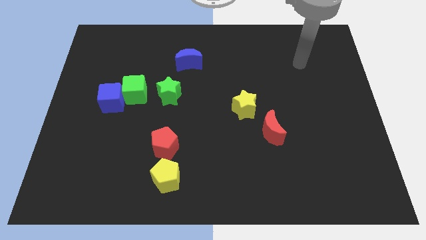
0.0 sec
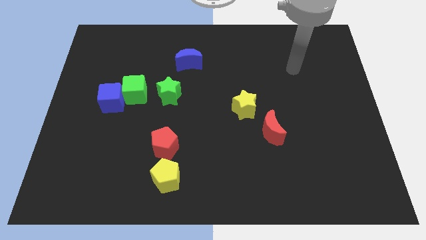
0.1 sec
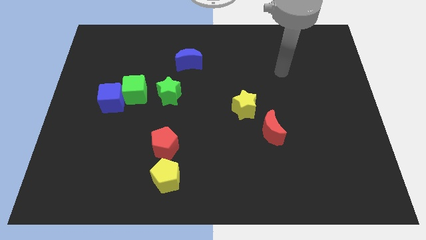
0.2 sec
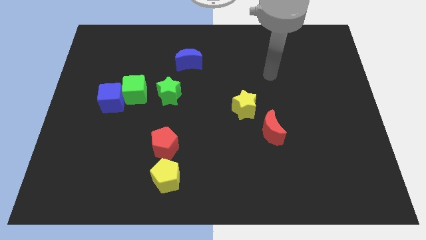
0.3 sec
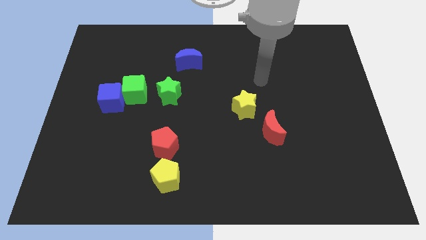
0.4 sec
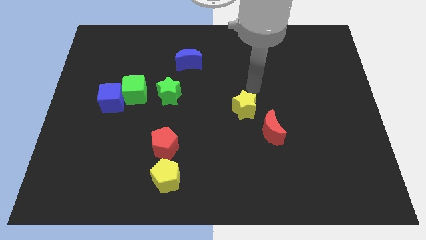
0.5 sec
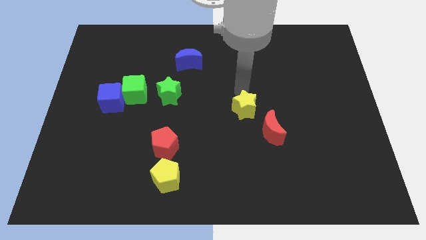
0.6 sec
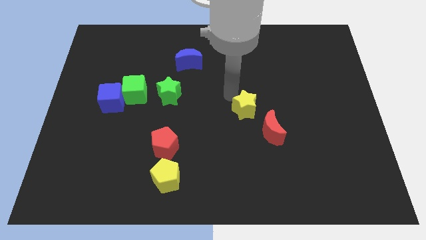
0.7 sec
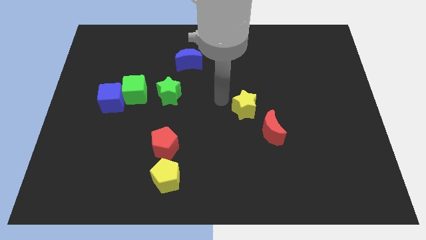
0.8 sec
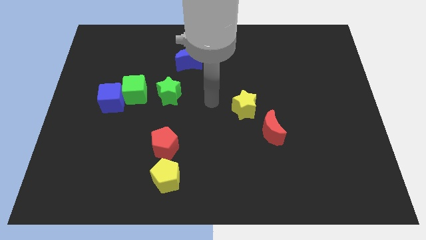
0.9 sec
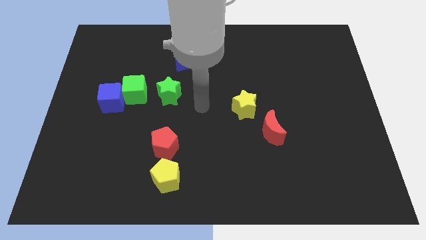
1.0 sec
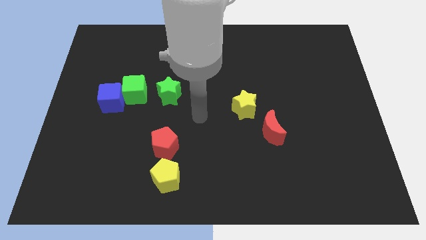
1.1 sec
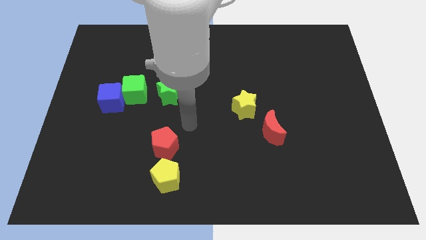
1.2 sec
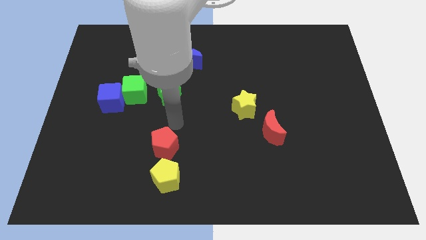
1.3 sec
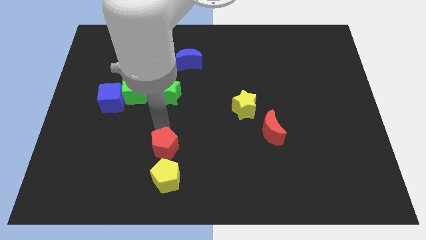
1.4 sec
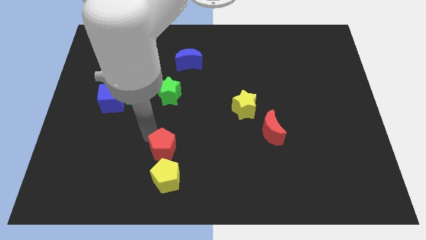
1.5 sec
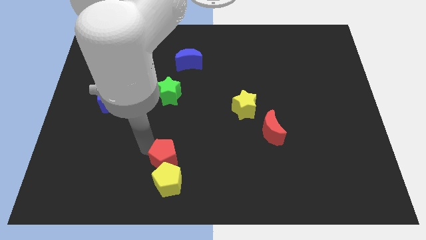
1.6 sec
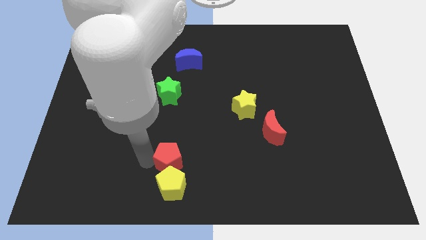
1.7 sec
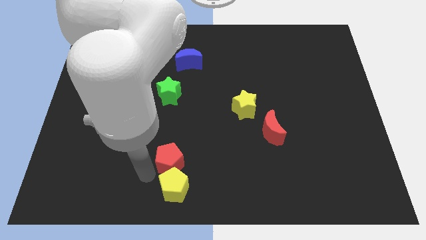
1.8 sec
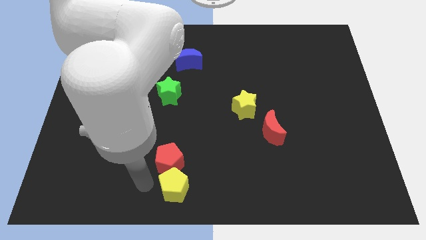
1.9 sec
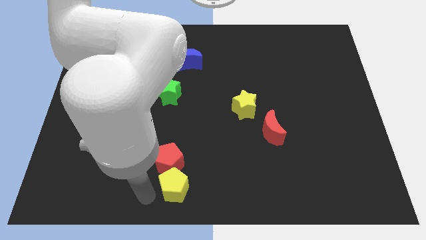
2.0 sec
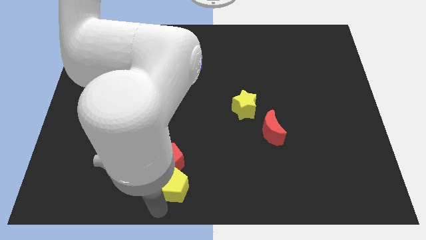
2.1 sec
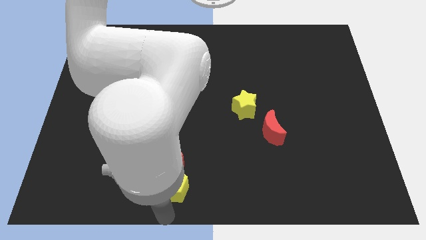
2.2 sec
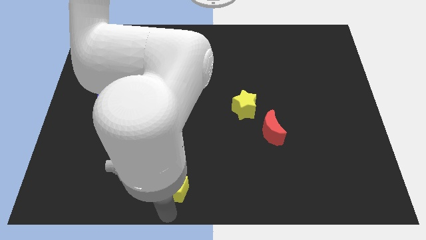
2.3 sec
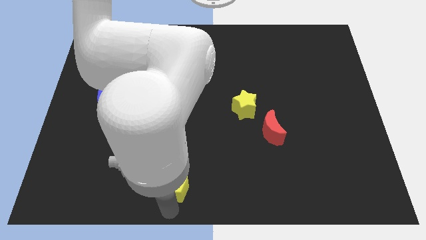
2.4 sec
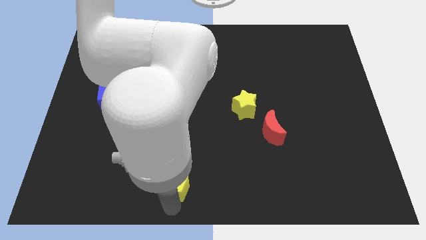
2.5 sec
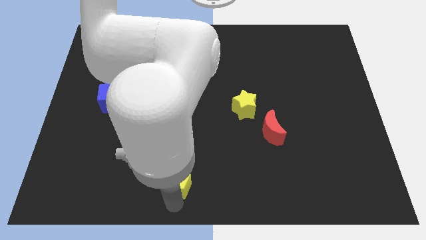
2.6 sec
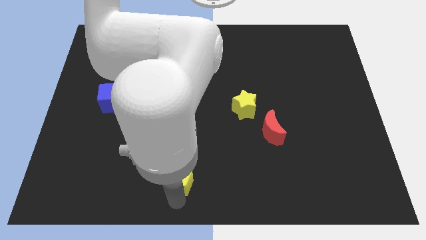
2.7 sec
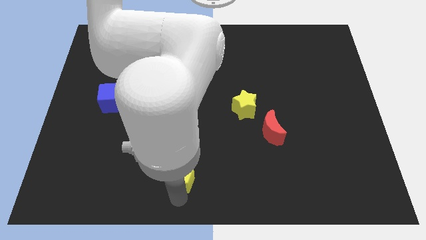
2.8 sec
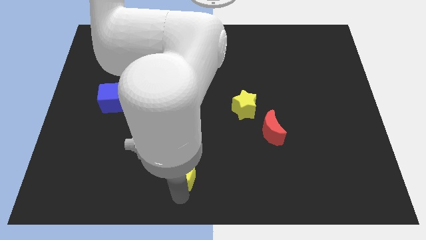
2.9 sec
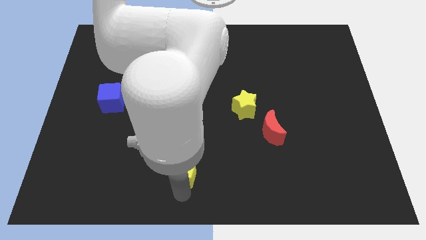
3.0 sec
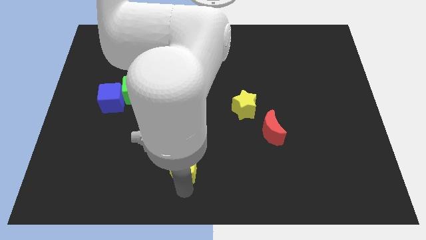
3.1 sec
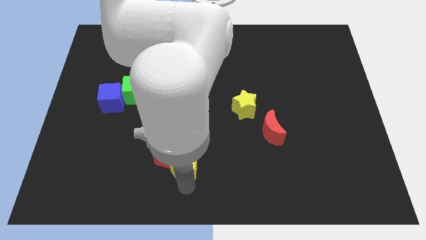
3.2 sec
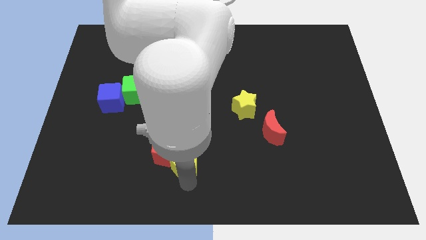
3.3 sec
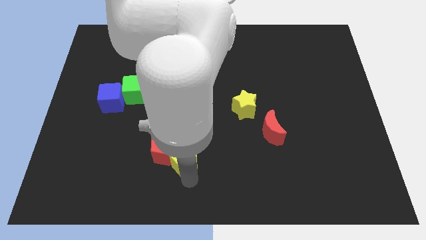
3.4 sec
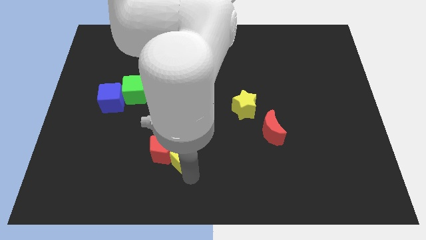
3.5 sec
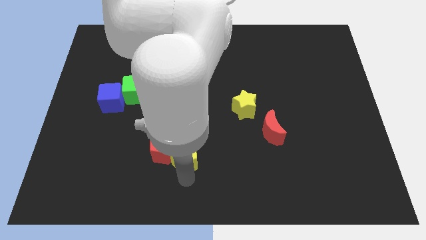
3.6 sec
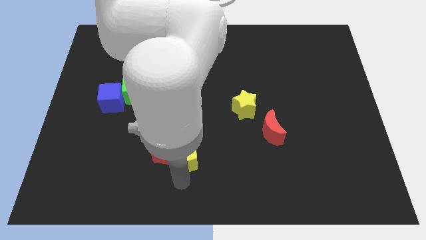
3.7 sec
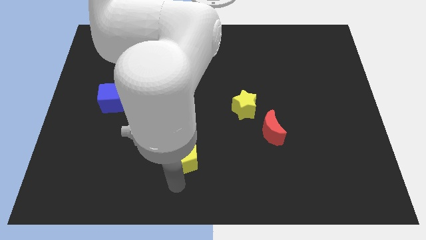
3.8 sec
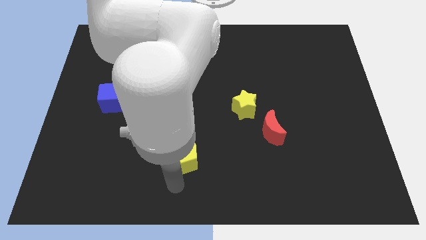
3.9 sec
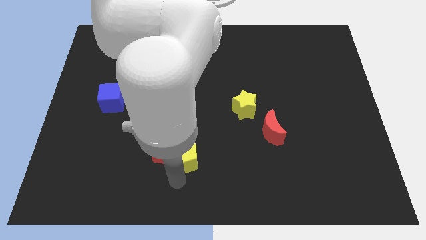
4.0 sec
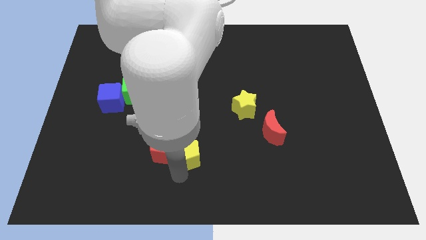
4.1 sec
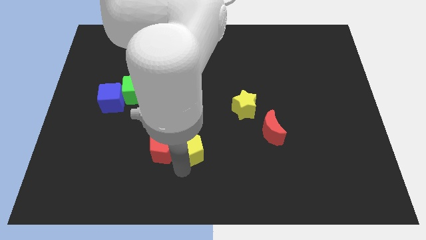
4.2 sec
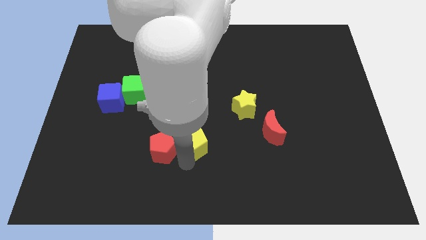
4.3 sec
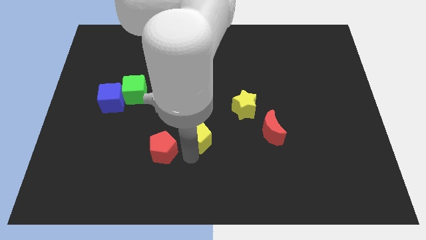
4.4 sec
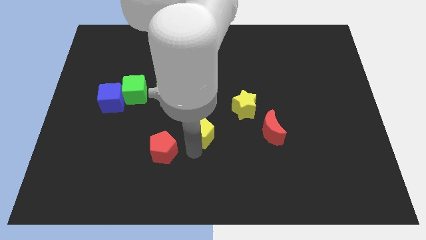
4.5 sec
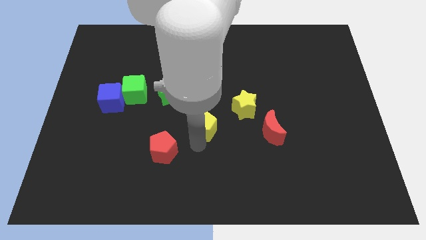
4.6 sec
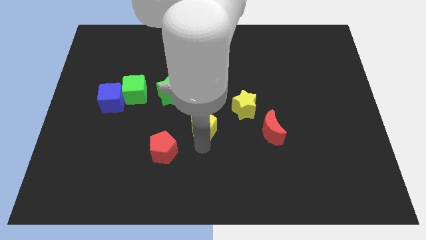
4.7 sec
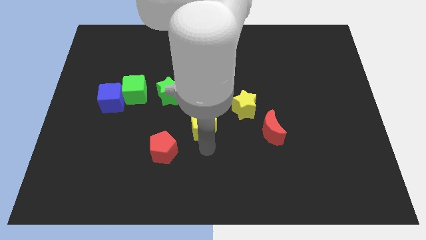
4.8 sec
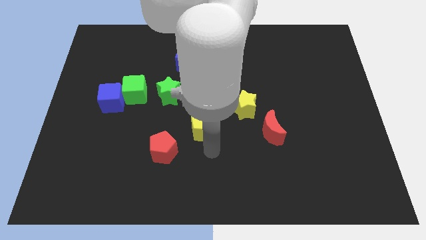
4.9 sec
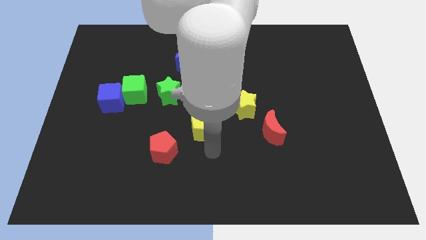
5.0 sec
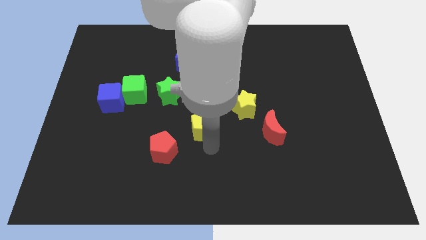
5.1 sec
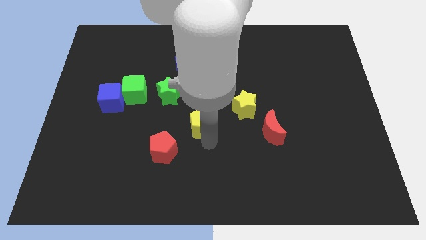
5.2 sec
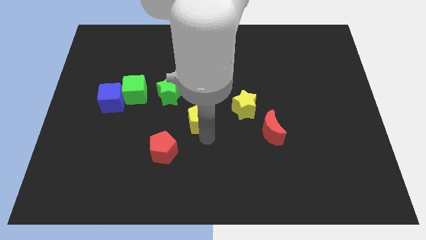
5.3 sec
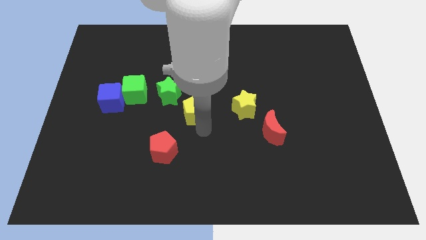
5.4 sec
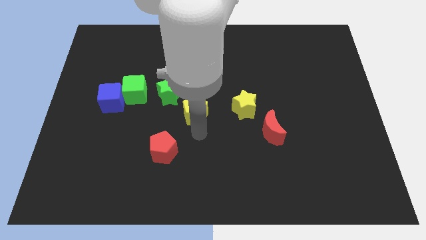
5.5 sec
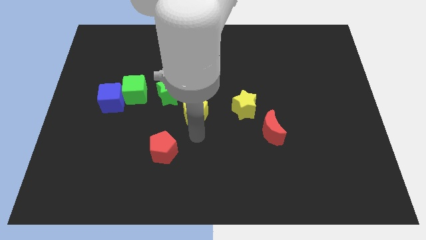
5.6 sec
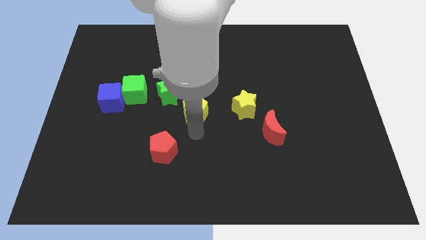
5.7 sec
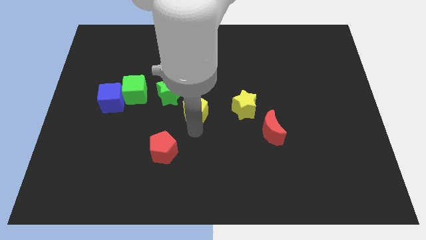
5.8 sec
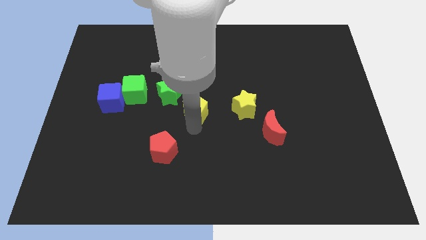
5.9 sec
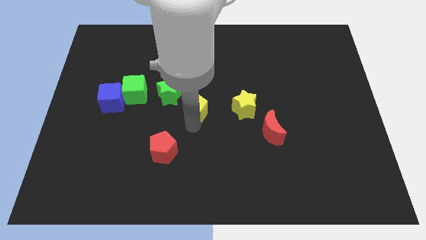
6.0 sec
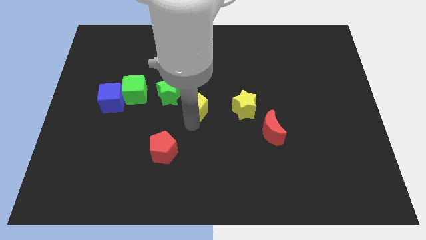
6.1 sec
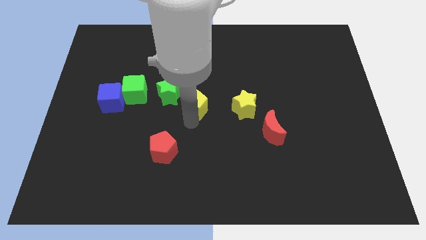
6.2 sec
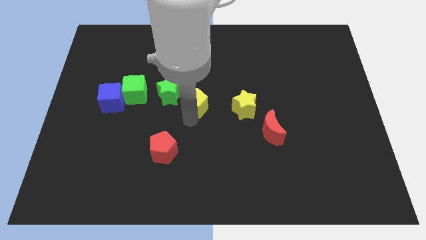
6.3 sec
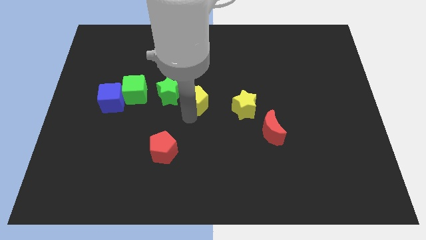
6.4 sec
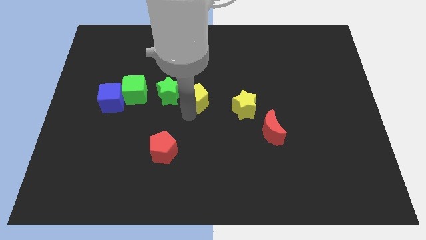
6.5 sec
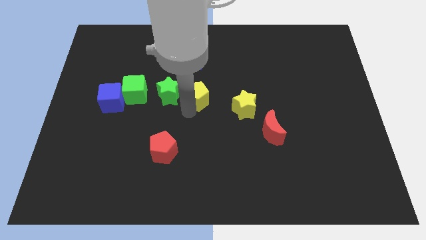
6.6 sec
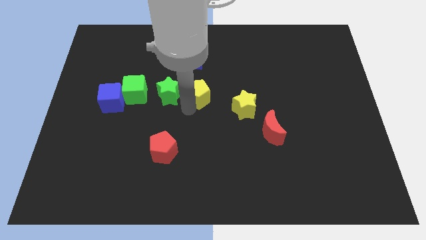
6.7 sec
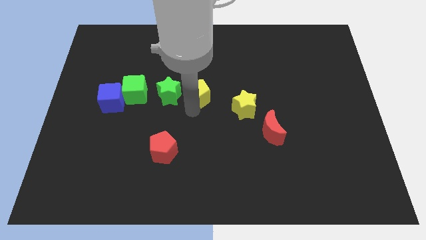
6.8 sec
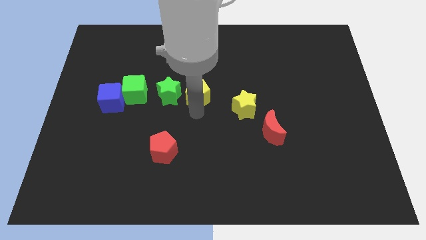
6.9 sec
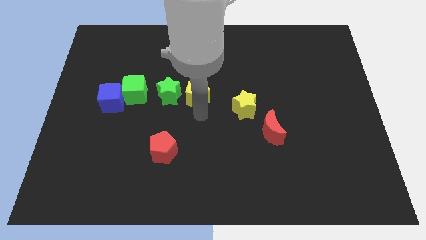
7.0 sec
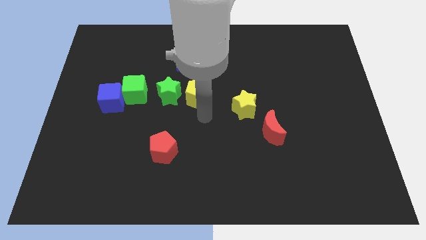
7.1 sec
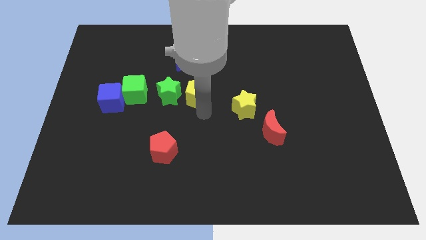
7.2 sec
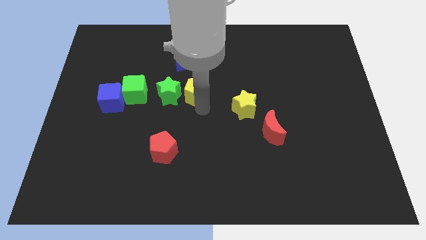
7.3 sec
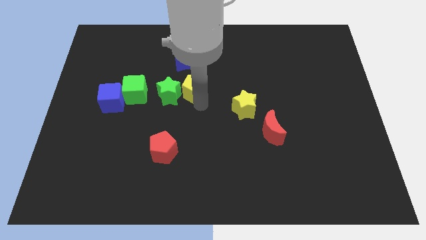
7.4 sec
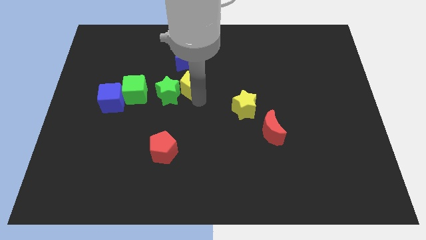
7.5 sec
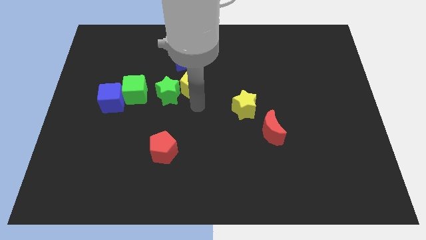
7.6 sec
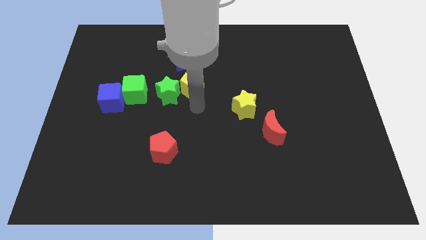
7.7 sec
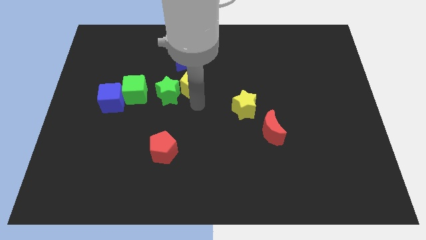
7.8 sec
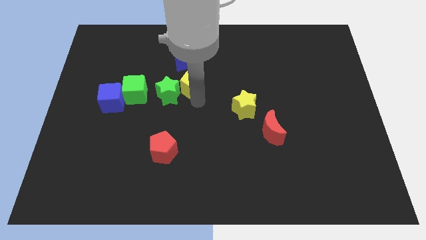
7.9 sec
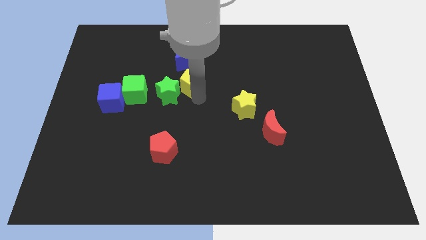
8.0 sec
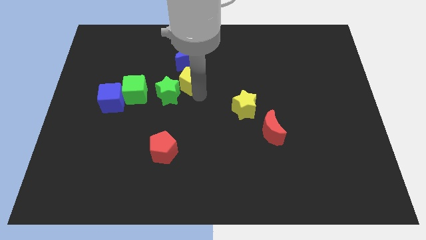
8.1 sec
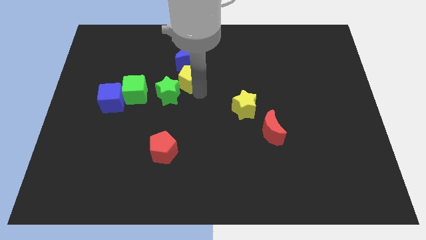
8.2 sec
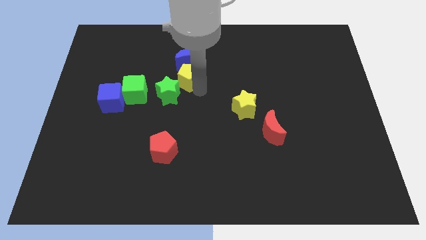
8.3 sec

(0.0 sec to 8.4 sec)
put the yellow pentagon towards the blue moon
